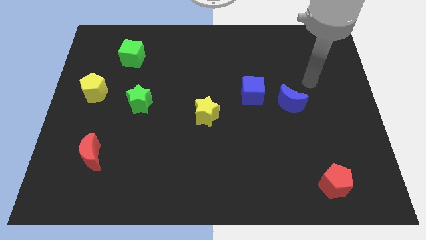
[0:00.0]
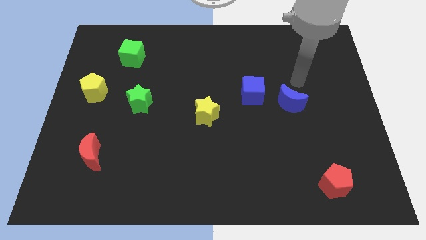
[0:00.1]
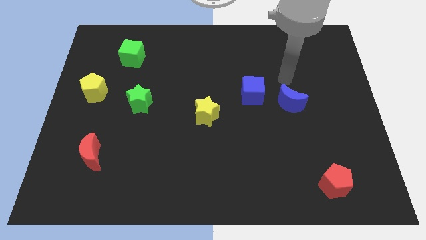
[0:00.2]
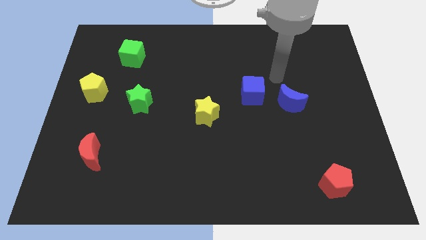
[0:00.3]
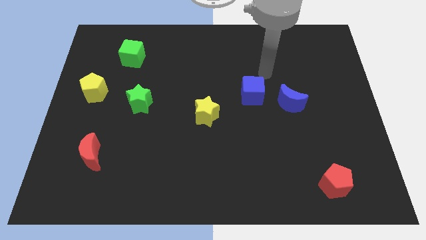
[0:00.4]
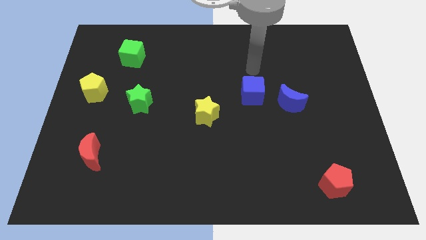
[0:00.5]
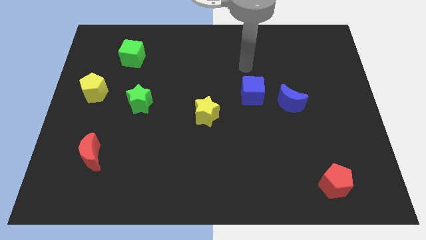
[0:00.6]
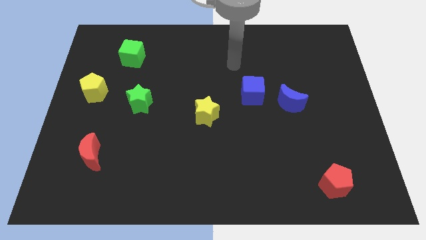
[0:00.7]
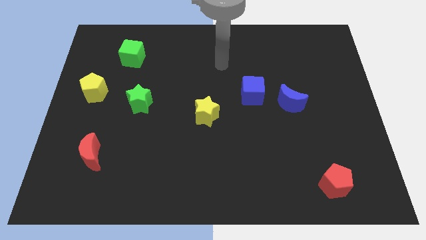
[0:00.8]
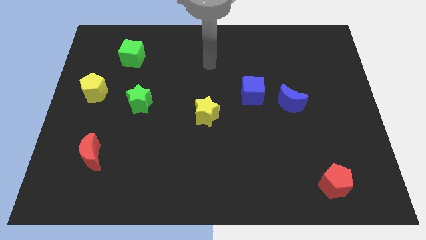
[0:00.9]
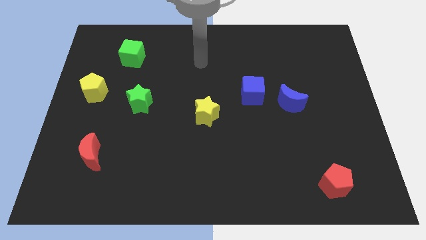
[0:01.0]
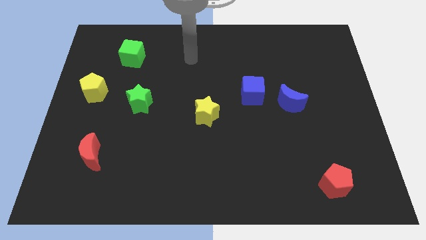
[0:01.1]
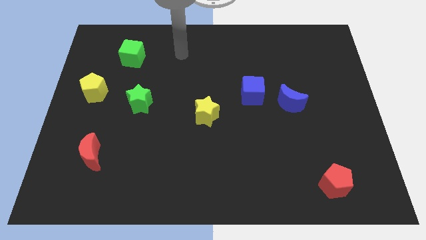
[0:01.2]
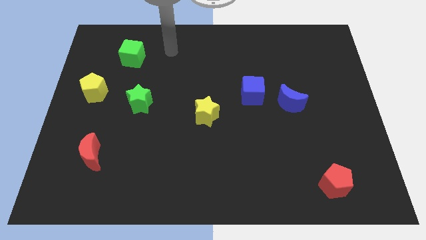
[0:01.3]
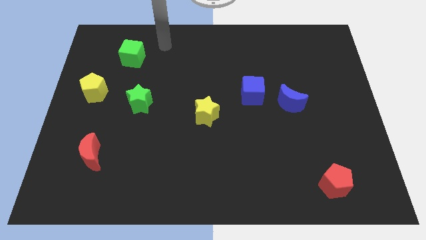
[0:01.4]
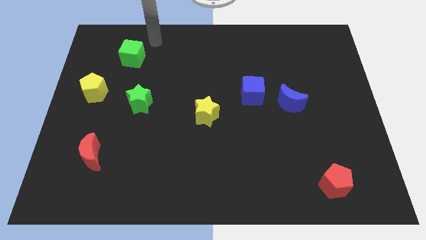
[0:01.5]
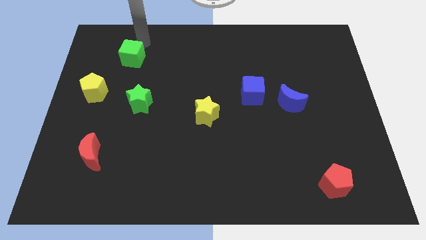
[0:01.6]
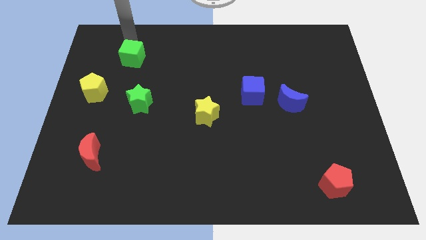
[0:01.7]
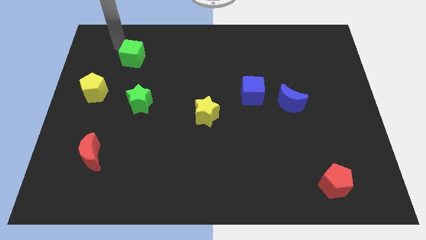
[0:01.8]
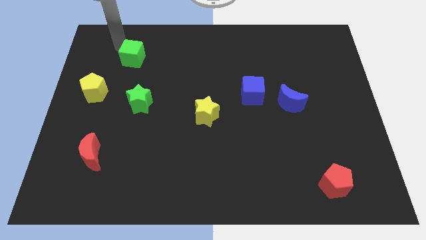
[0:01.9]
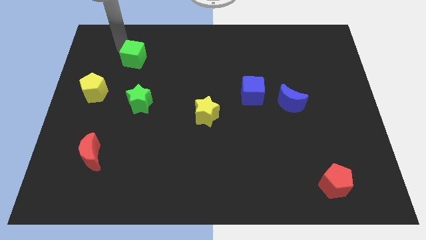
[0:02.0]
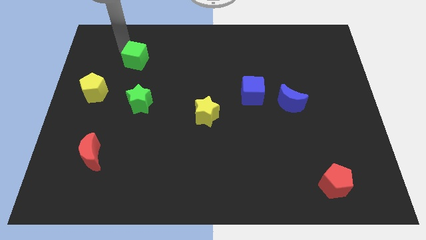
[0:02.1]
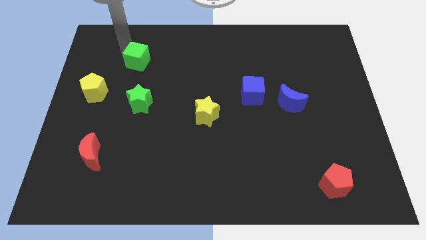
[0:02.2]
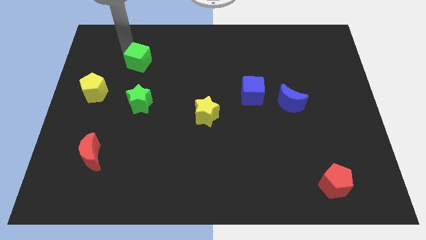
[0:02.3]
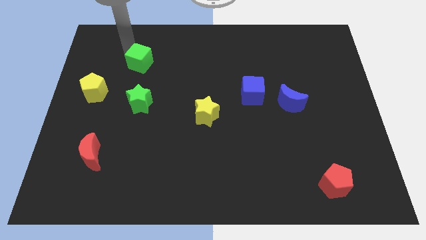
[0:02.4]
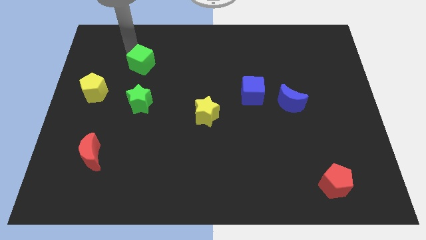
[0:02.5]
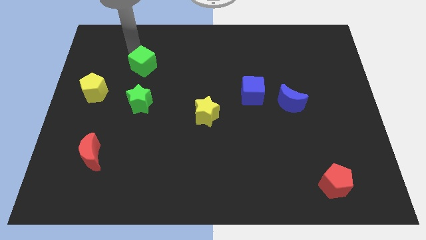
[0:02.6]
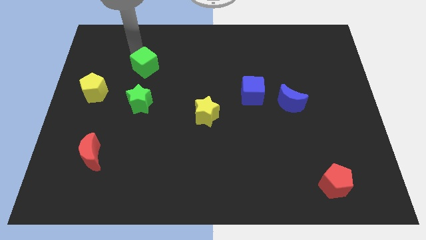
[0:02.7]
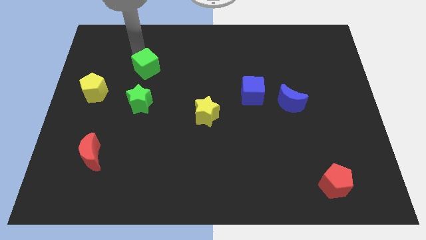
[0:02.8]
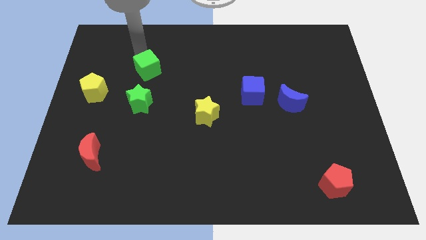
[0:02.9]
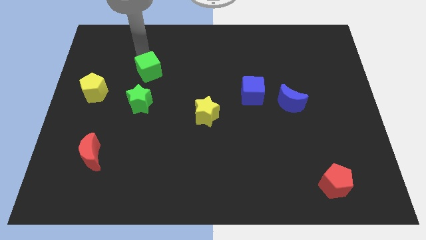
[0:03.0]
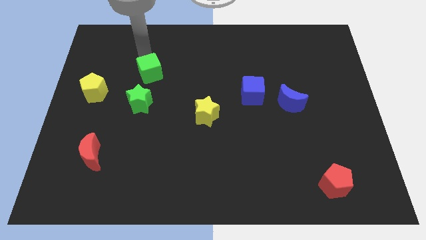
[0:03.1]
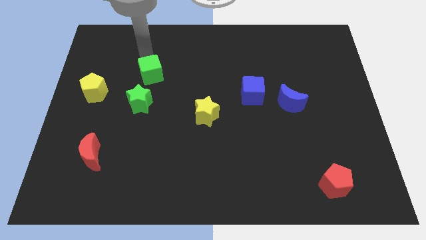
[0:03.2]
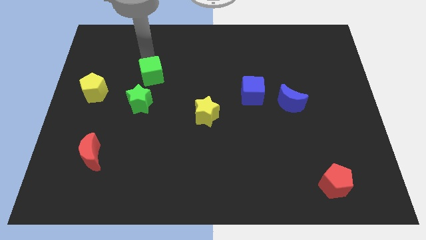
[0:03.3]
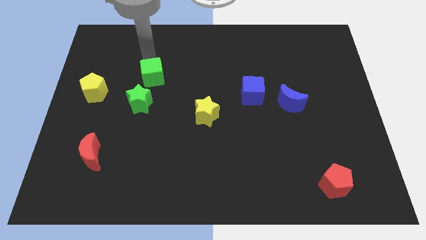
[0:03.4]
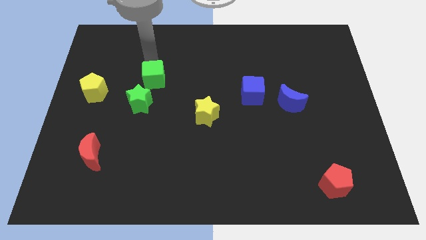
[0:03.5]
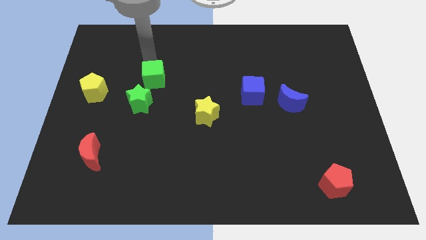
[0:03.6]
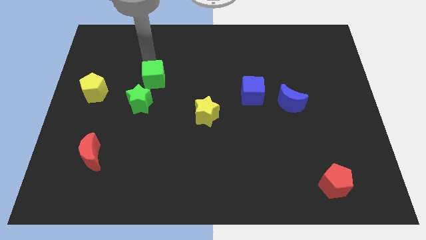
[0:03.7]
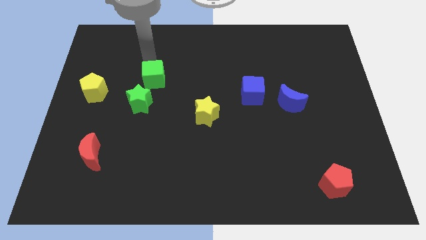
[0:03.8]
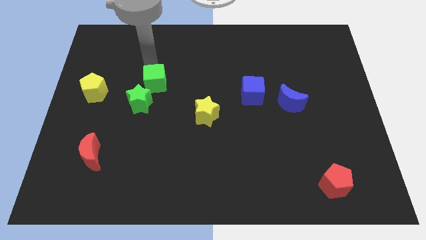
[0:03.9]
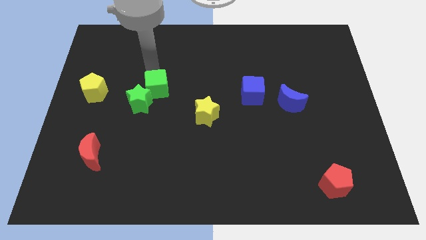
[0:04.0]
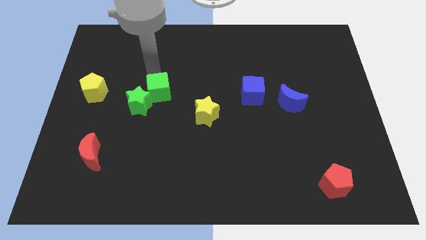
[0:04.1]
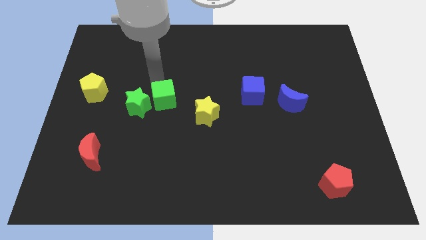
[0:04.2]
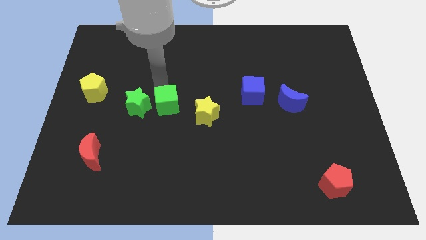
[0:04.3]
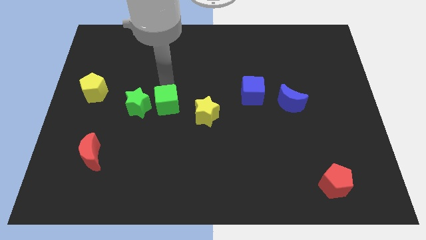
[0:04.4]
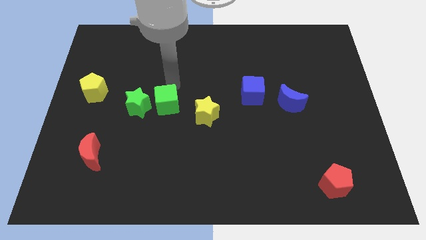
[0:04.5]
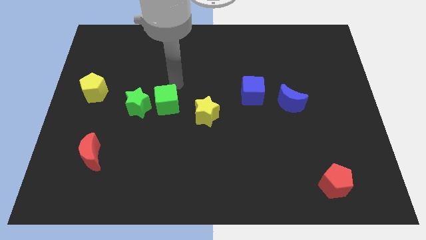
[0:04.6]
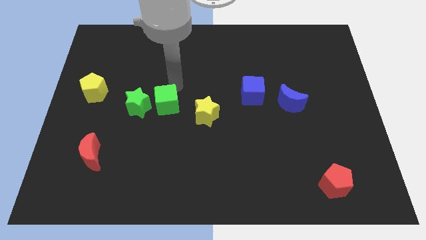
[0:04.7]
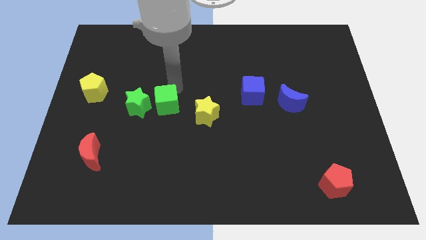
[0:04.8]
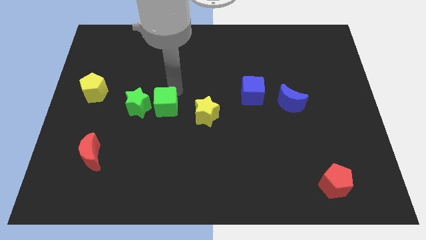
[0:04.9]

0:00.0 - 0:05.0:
slide the green cube to the bottom right side of the green star

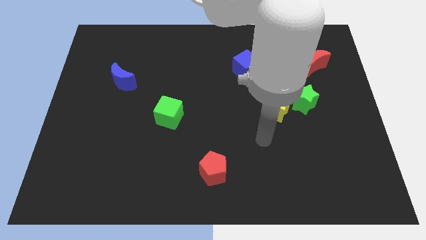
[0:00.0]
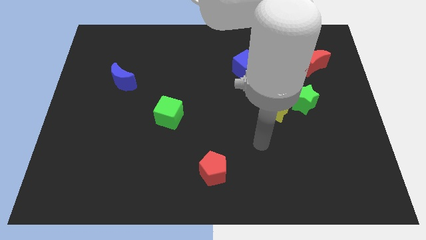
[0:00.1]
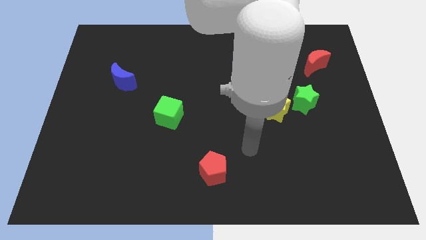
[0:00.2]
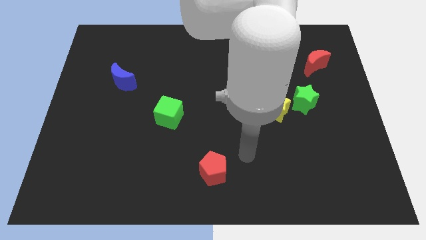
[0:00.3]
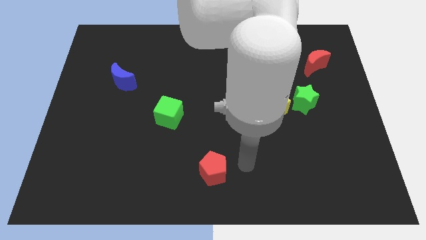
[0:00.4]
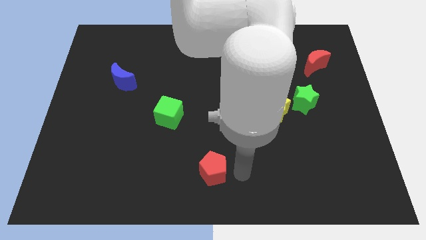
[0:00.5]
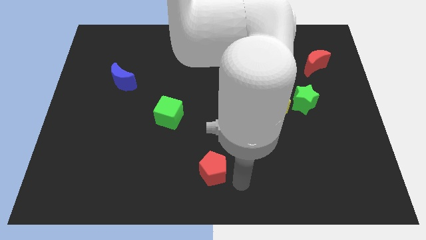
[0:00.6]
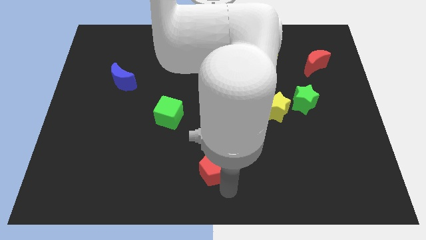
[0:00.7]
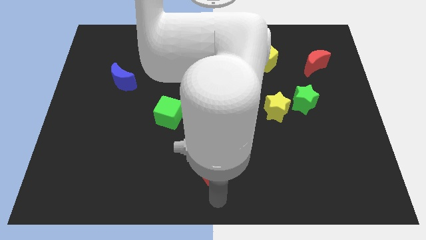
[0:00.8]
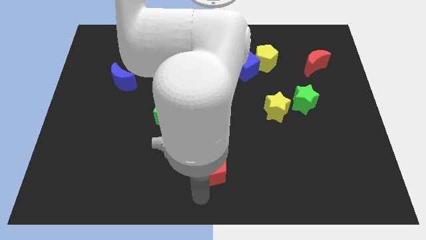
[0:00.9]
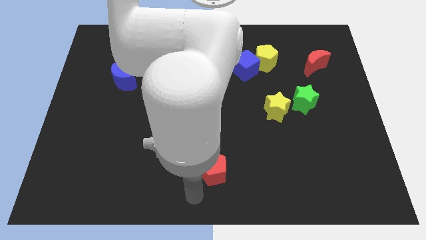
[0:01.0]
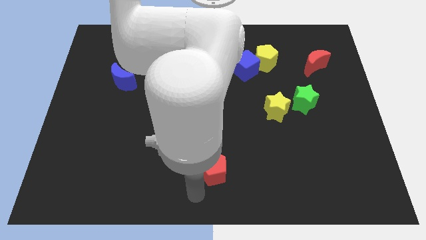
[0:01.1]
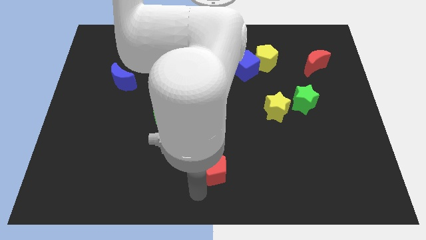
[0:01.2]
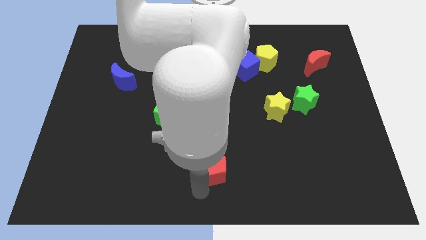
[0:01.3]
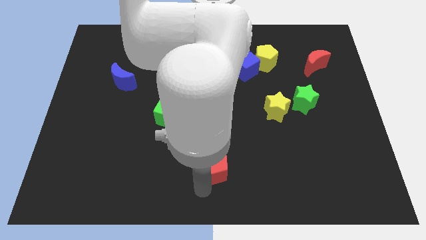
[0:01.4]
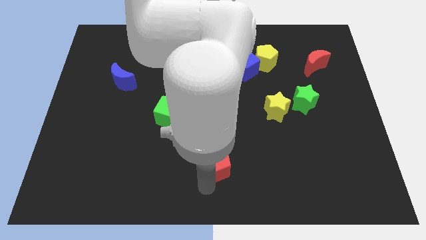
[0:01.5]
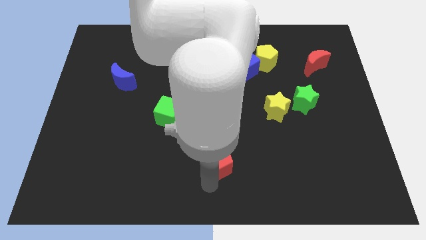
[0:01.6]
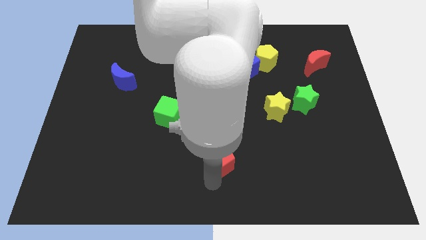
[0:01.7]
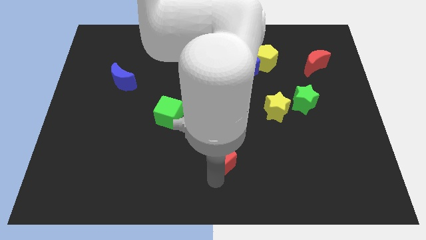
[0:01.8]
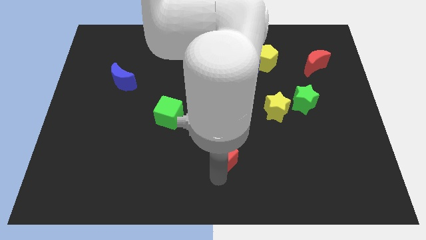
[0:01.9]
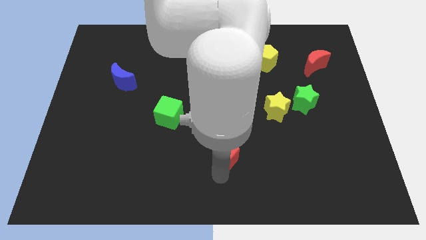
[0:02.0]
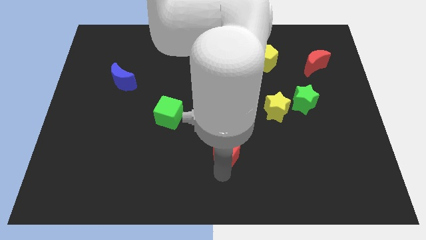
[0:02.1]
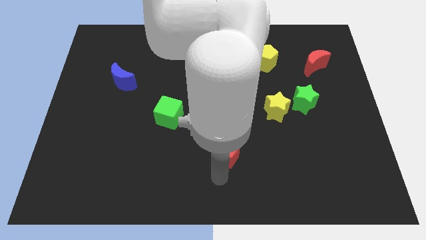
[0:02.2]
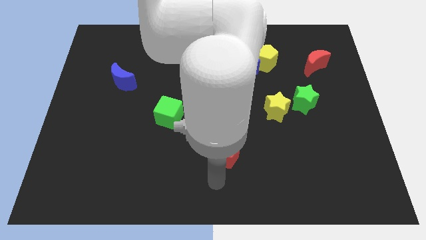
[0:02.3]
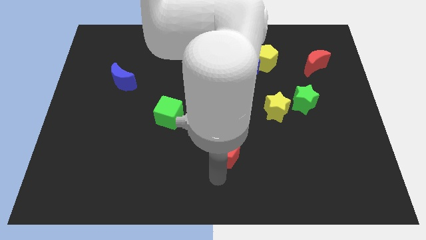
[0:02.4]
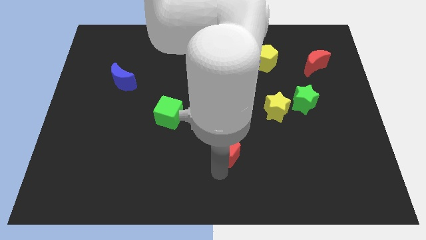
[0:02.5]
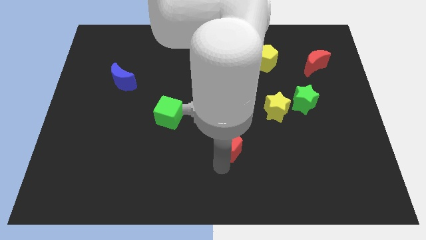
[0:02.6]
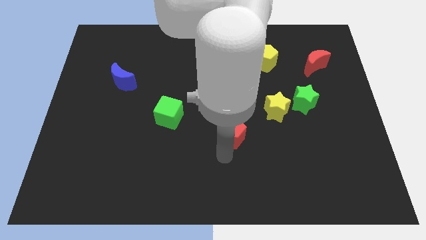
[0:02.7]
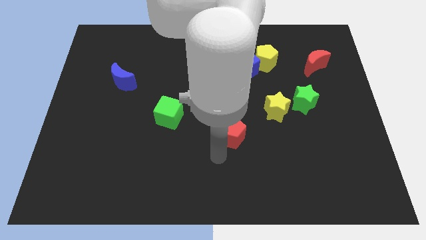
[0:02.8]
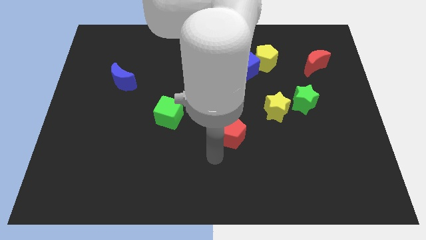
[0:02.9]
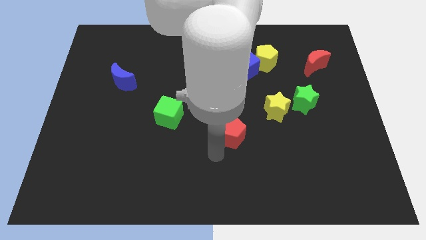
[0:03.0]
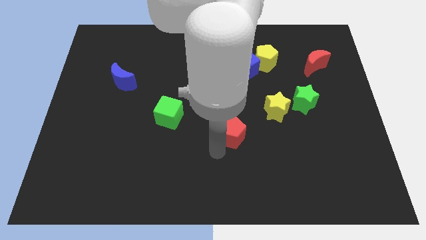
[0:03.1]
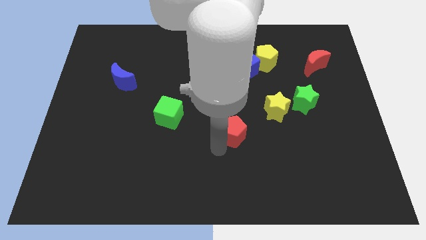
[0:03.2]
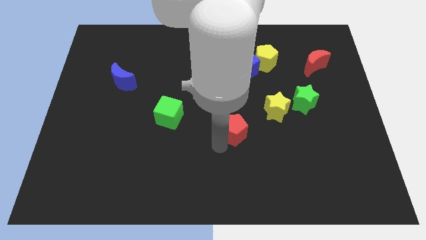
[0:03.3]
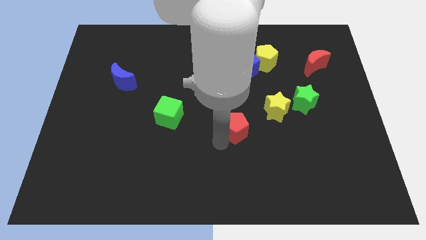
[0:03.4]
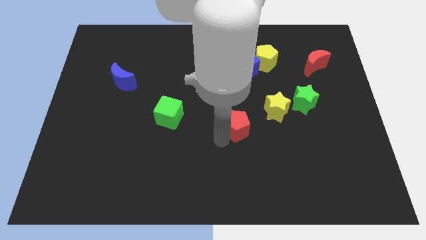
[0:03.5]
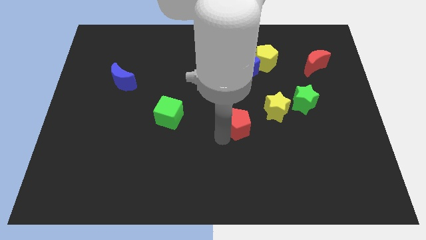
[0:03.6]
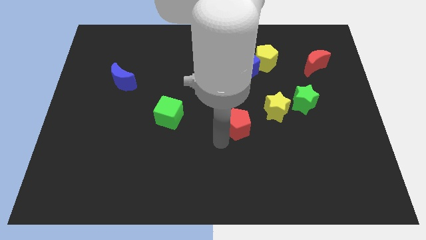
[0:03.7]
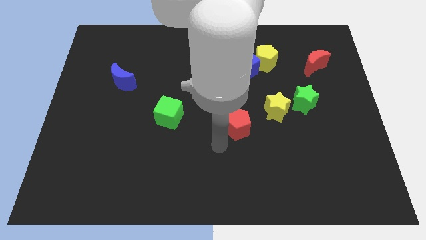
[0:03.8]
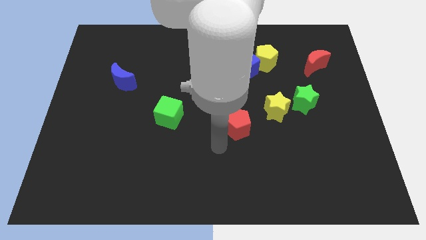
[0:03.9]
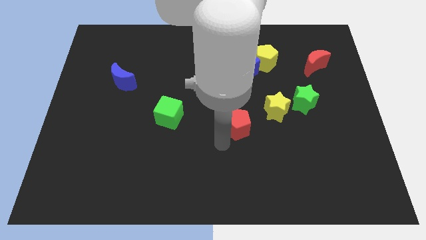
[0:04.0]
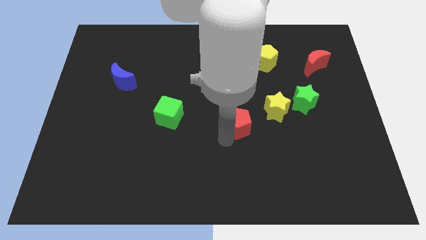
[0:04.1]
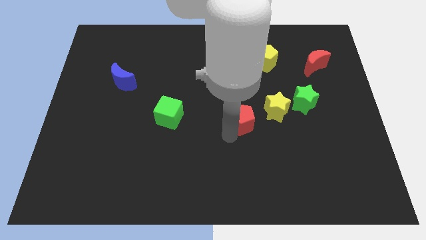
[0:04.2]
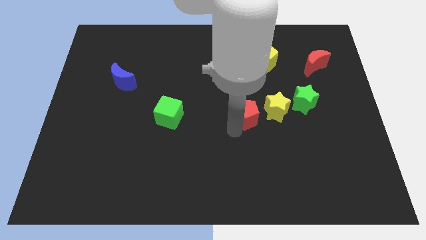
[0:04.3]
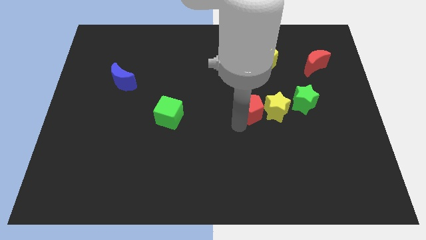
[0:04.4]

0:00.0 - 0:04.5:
put the red pentagon to the left of the green star
